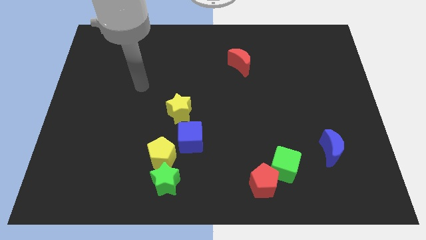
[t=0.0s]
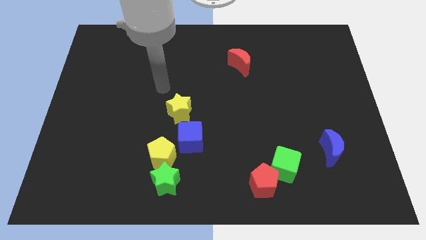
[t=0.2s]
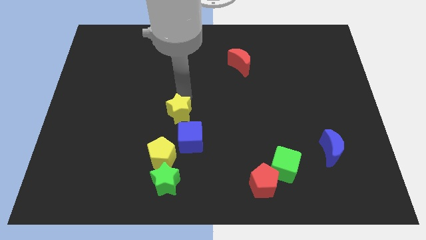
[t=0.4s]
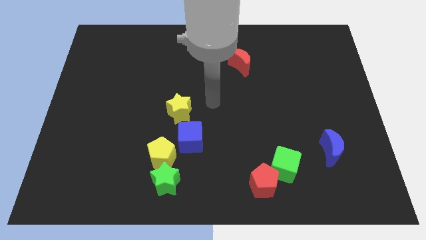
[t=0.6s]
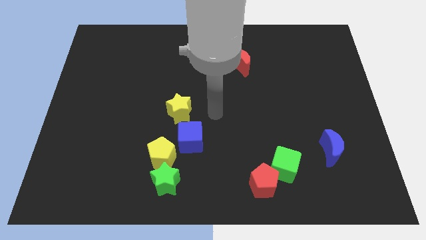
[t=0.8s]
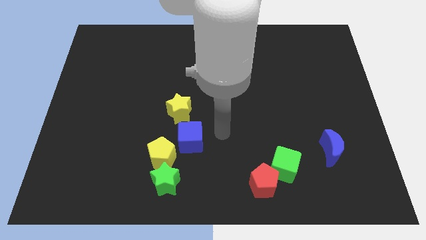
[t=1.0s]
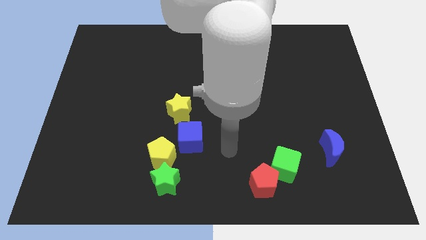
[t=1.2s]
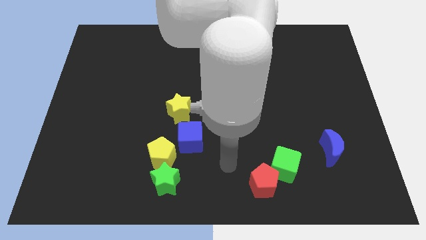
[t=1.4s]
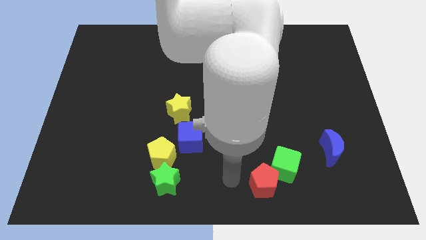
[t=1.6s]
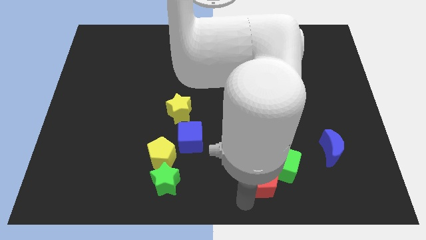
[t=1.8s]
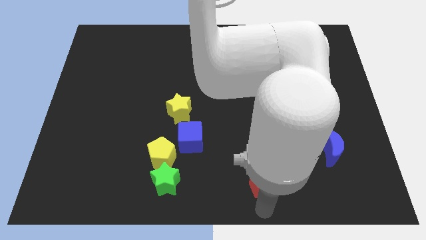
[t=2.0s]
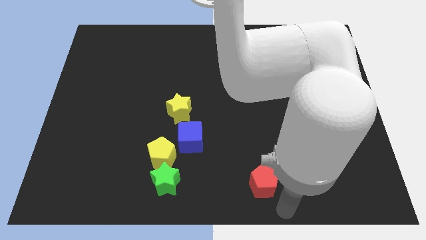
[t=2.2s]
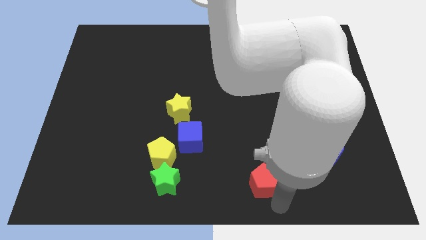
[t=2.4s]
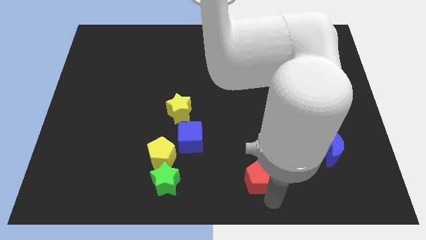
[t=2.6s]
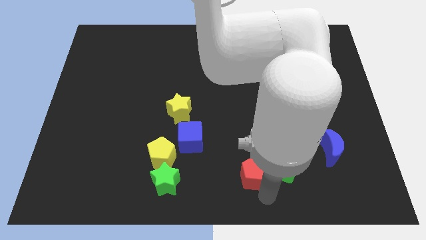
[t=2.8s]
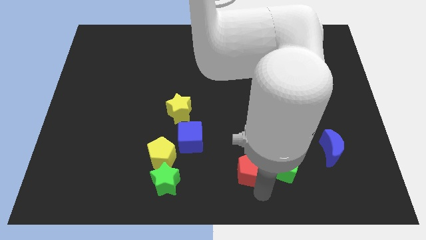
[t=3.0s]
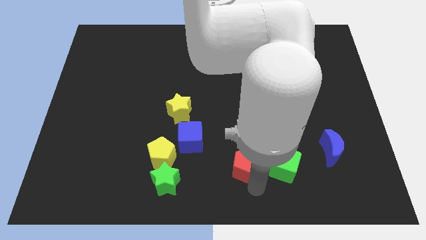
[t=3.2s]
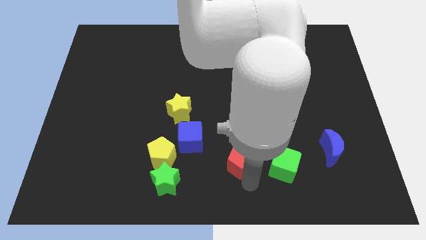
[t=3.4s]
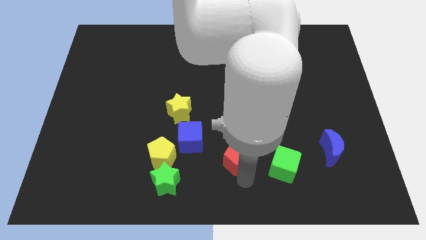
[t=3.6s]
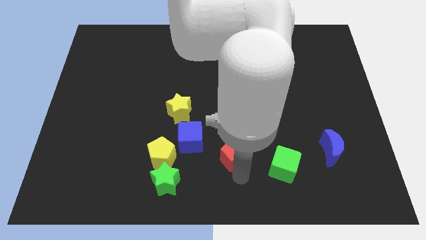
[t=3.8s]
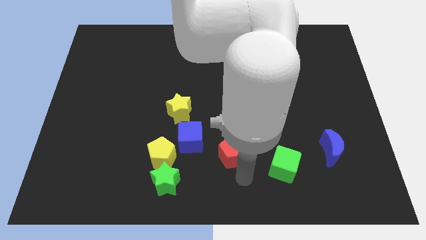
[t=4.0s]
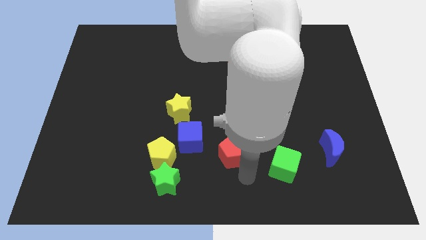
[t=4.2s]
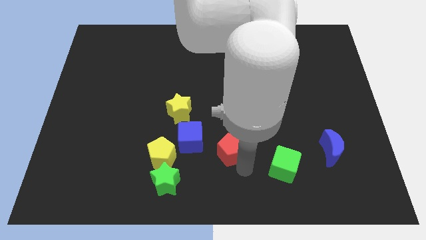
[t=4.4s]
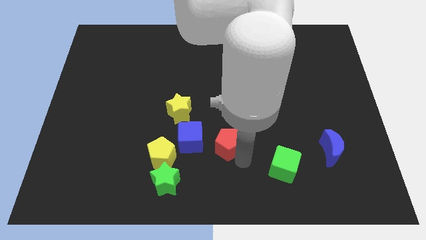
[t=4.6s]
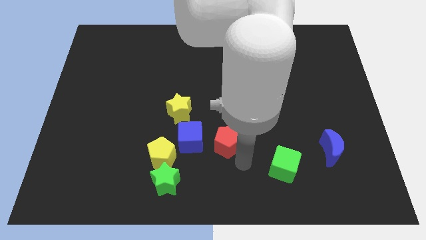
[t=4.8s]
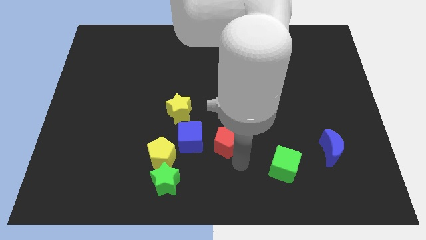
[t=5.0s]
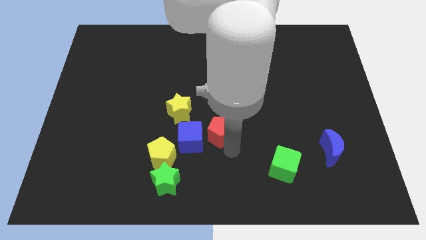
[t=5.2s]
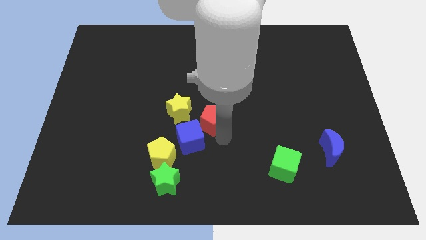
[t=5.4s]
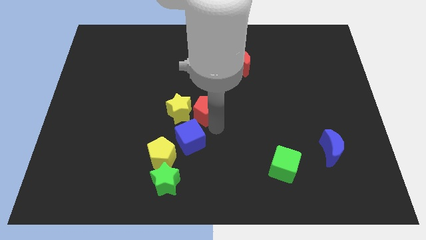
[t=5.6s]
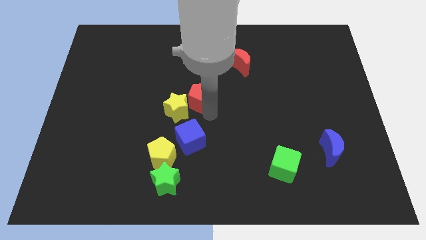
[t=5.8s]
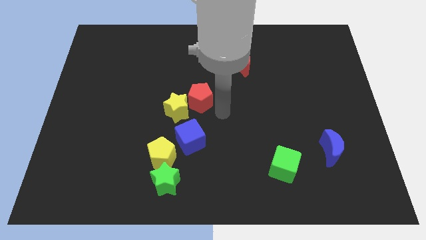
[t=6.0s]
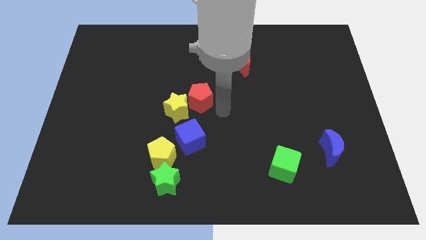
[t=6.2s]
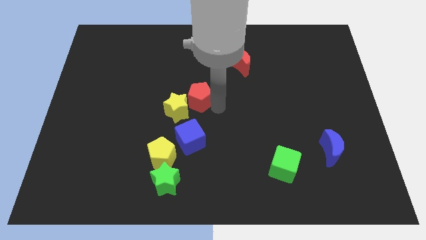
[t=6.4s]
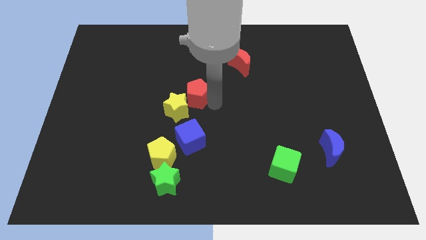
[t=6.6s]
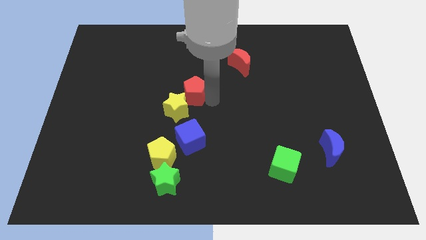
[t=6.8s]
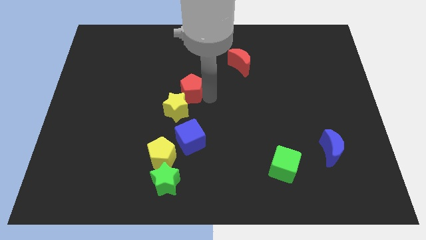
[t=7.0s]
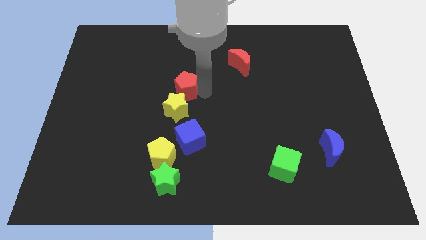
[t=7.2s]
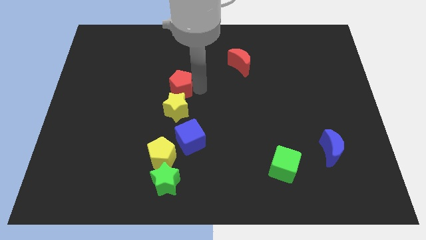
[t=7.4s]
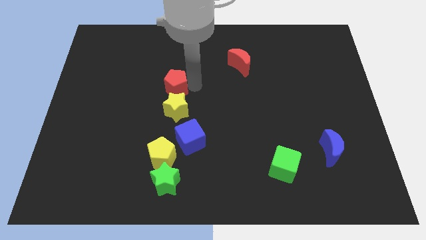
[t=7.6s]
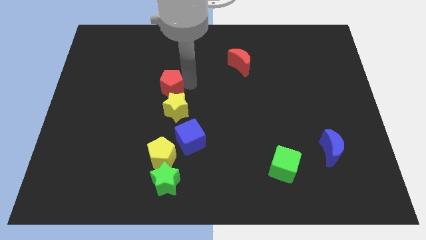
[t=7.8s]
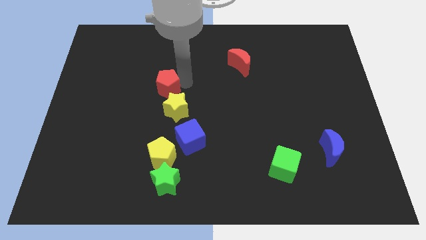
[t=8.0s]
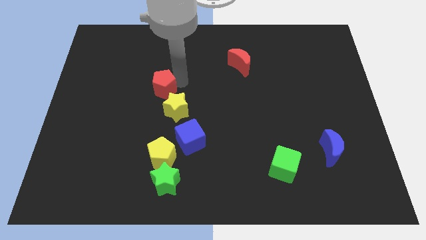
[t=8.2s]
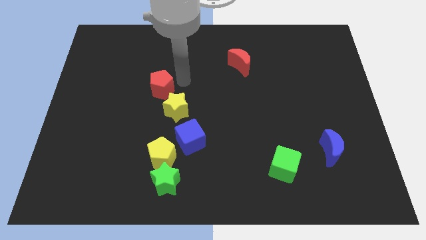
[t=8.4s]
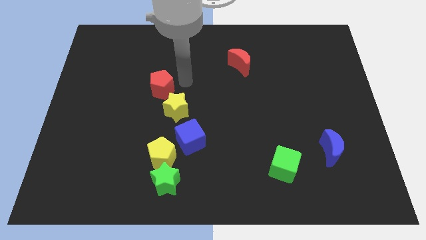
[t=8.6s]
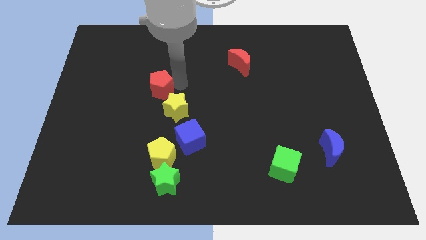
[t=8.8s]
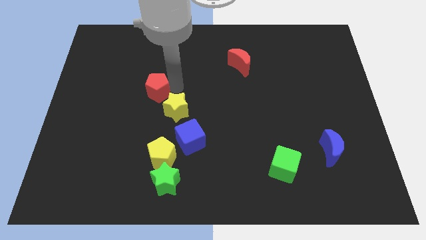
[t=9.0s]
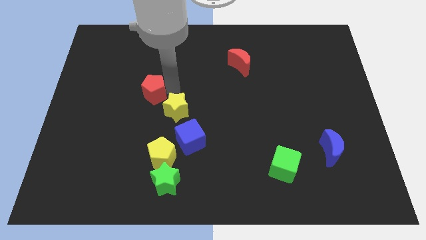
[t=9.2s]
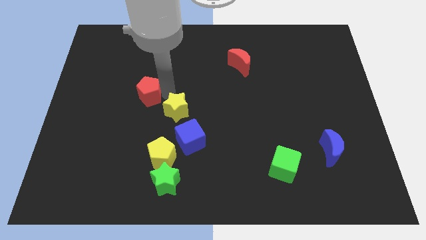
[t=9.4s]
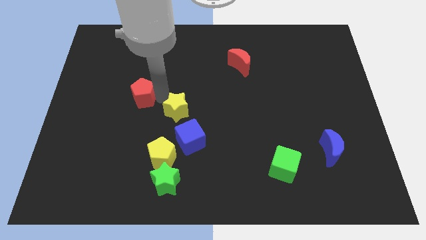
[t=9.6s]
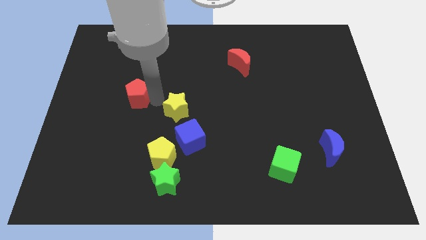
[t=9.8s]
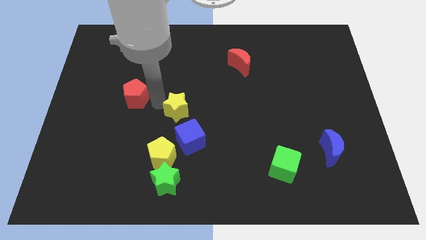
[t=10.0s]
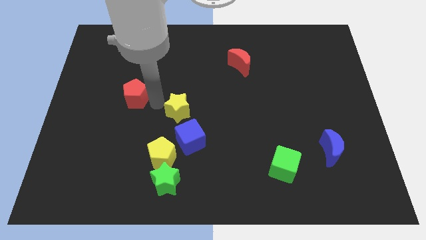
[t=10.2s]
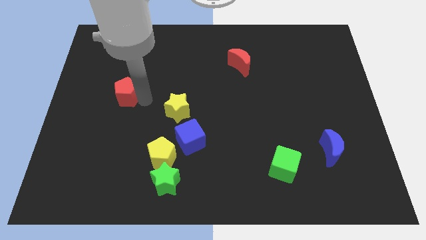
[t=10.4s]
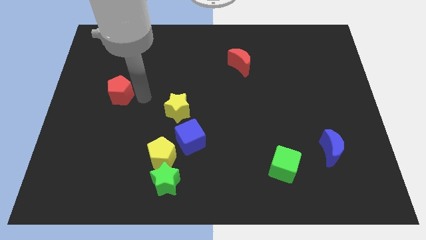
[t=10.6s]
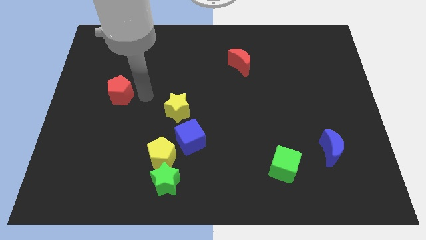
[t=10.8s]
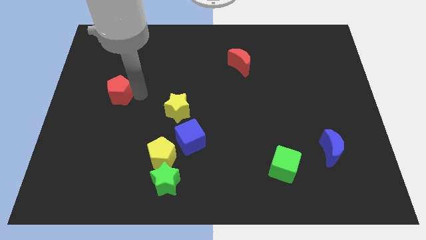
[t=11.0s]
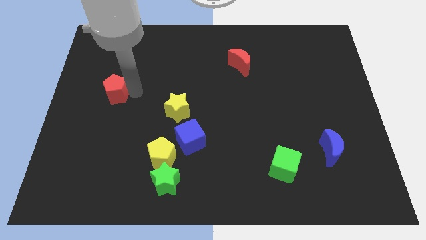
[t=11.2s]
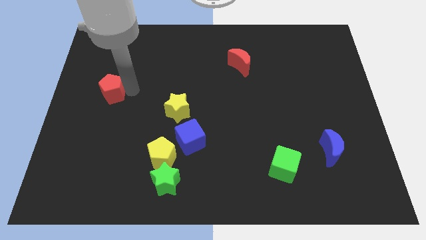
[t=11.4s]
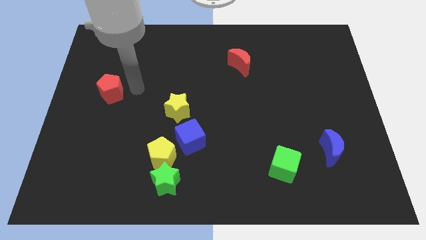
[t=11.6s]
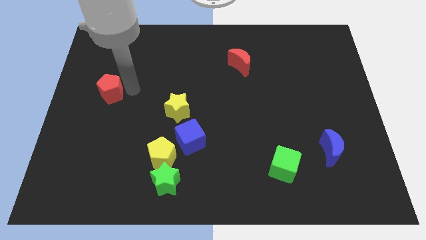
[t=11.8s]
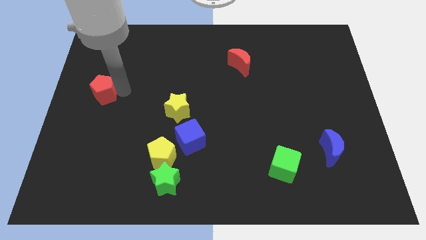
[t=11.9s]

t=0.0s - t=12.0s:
slide the red pentagon to the left side
